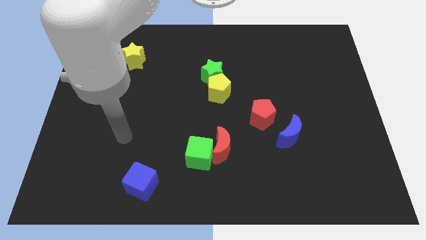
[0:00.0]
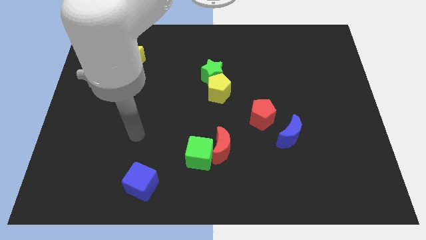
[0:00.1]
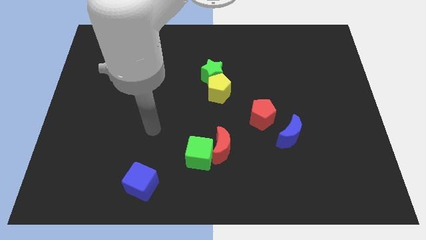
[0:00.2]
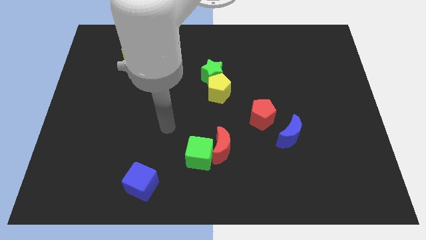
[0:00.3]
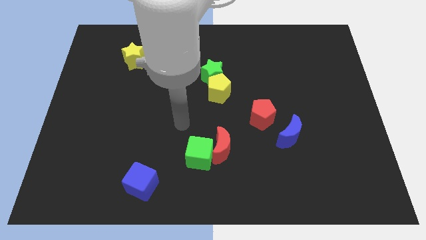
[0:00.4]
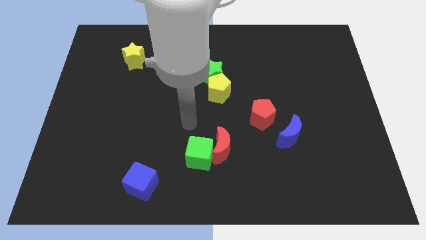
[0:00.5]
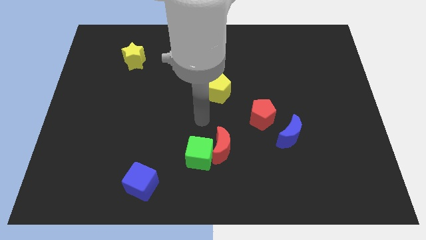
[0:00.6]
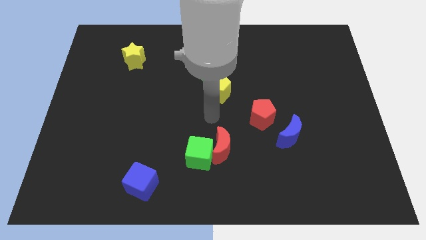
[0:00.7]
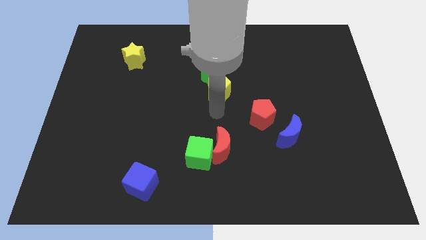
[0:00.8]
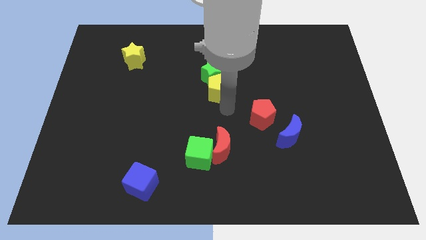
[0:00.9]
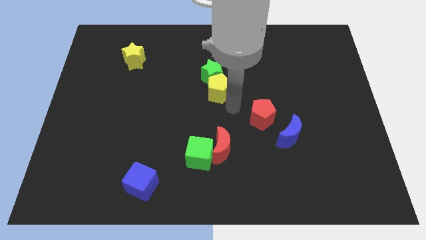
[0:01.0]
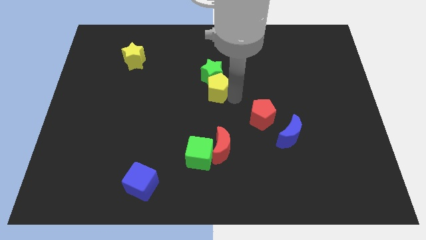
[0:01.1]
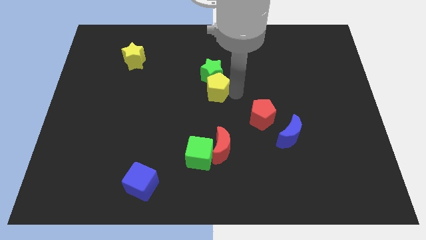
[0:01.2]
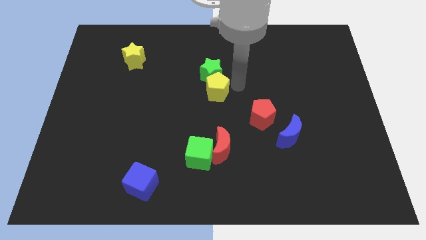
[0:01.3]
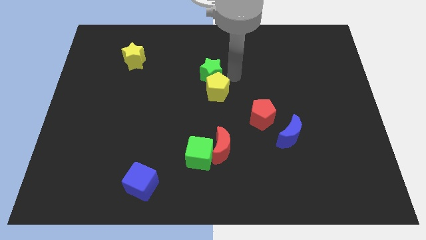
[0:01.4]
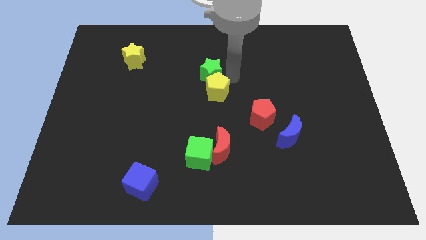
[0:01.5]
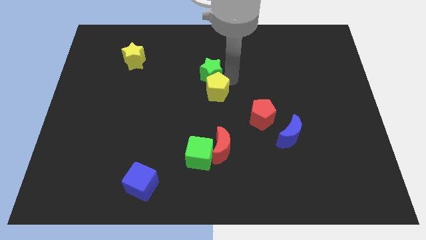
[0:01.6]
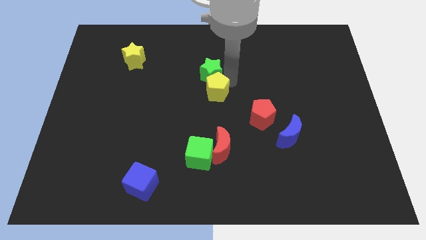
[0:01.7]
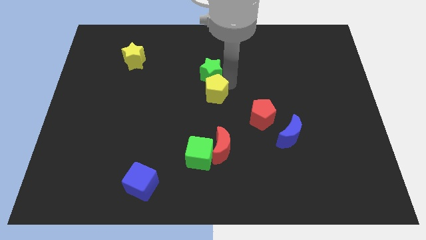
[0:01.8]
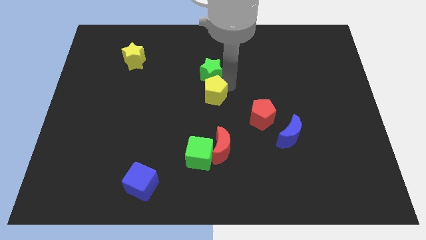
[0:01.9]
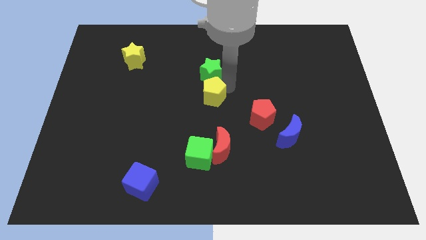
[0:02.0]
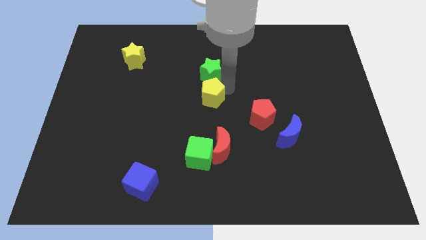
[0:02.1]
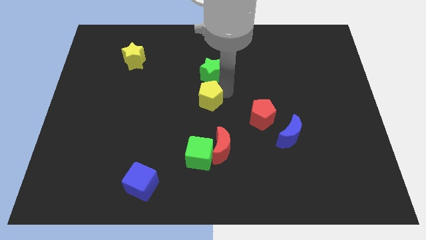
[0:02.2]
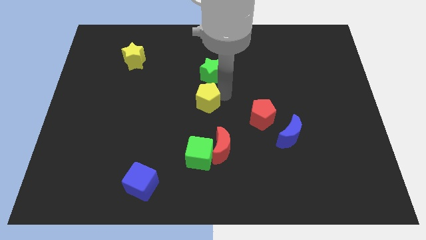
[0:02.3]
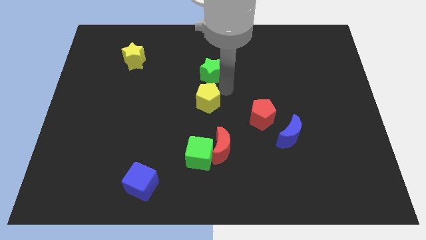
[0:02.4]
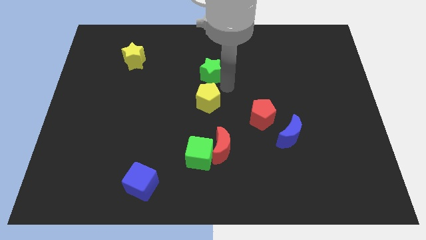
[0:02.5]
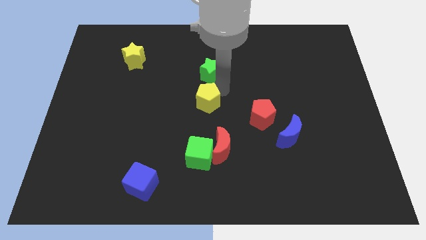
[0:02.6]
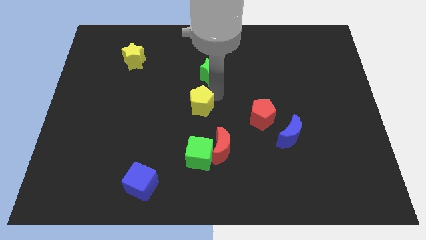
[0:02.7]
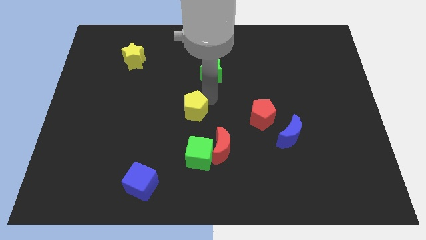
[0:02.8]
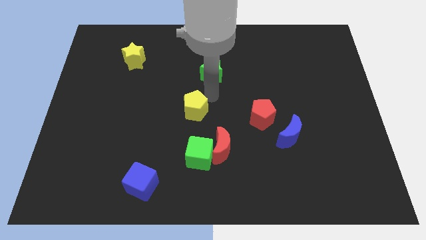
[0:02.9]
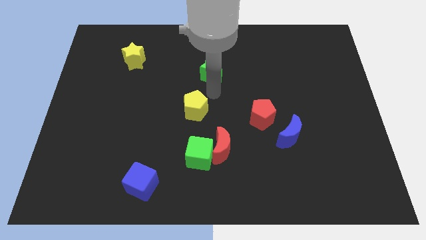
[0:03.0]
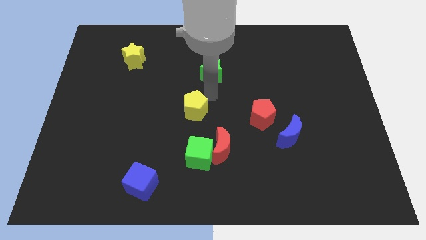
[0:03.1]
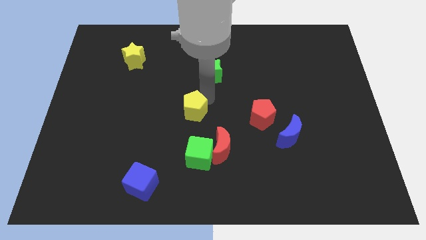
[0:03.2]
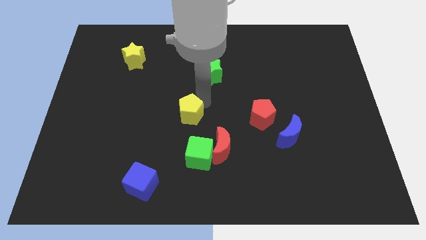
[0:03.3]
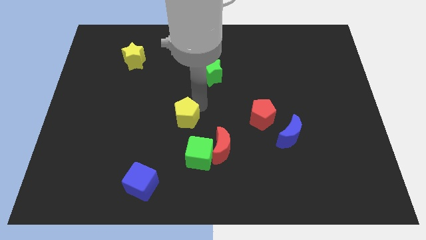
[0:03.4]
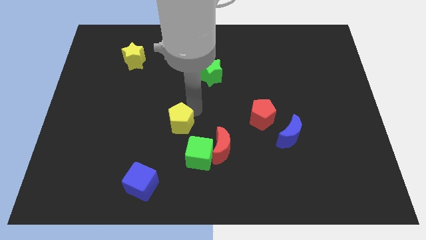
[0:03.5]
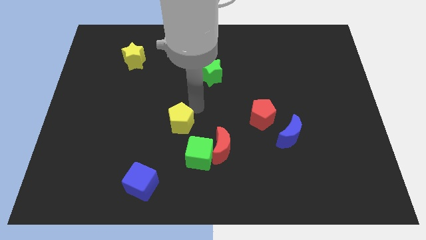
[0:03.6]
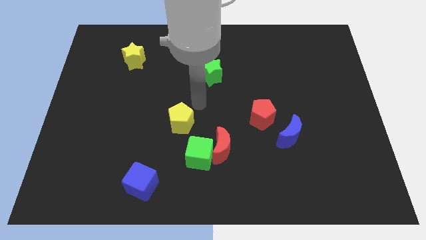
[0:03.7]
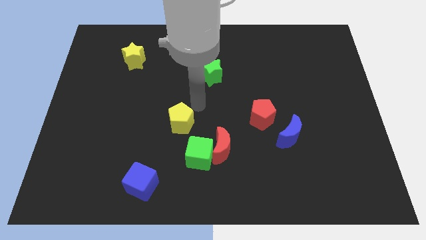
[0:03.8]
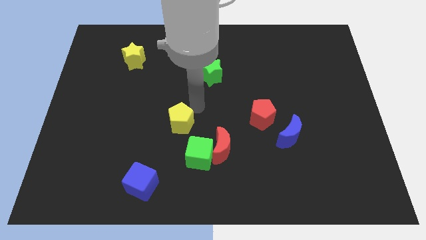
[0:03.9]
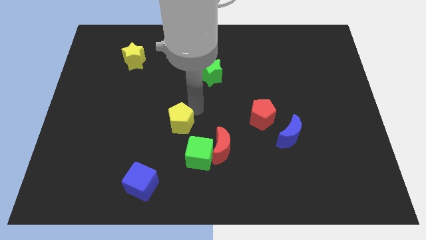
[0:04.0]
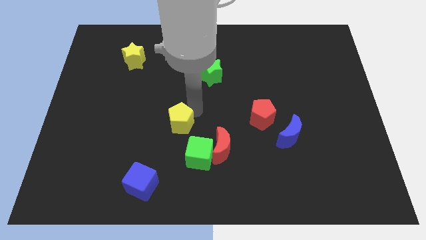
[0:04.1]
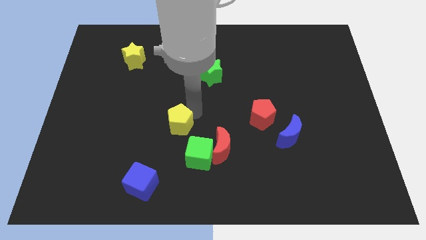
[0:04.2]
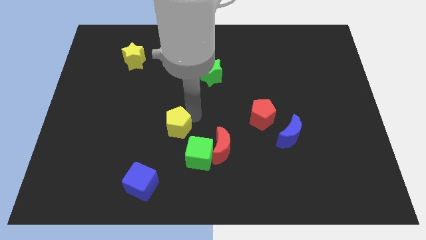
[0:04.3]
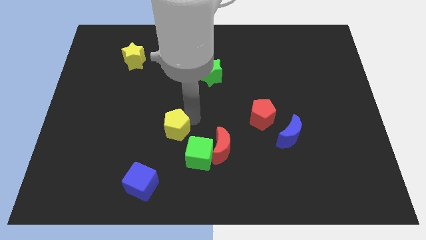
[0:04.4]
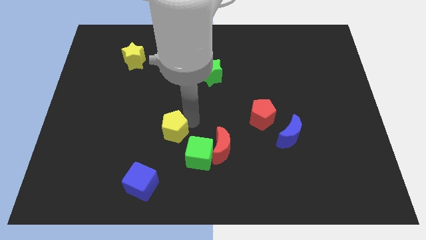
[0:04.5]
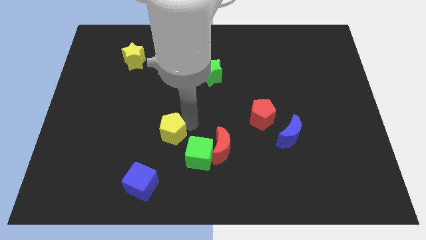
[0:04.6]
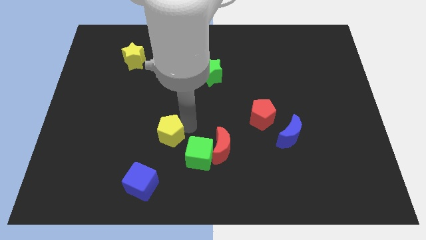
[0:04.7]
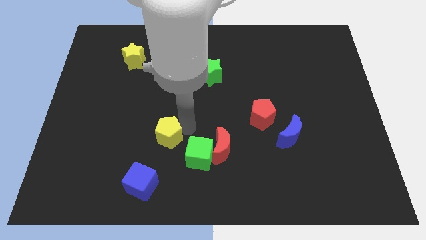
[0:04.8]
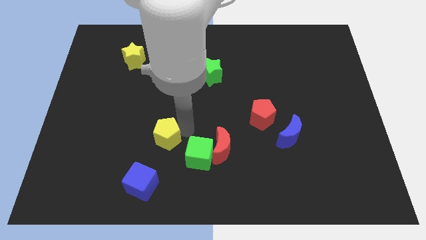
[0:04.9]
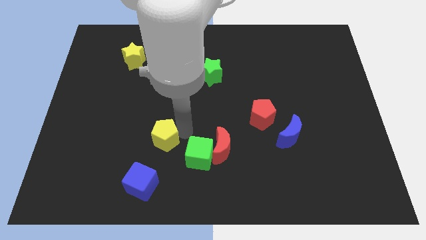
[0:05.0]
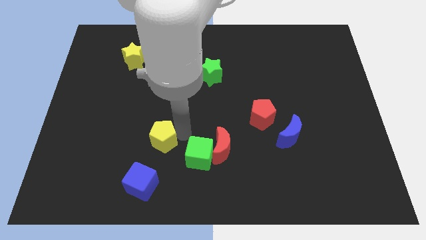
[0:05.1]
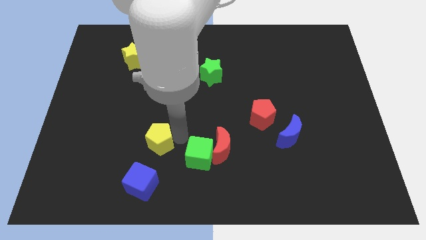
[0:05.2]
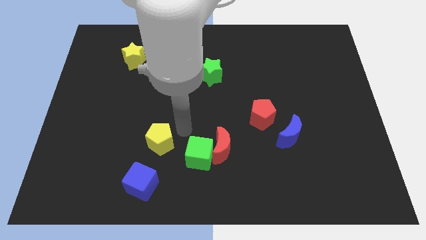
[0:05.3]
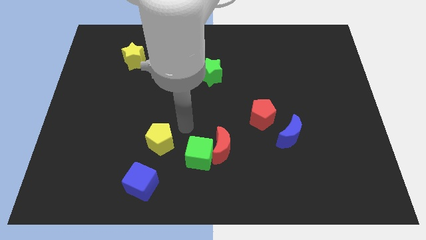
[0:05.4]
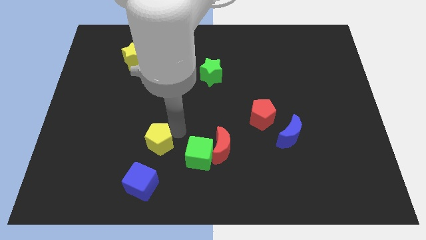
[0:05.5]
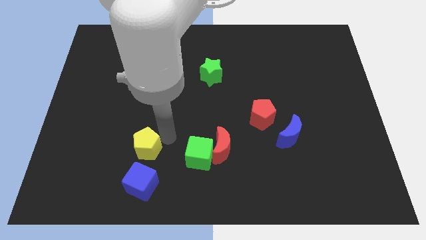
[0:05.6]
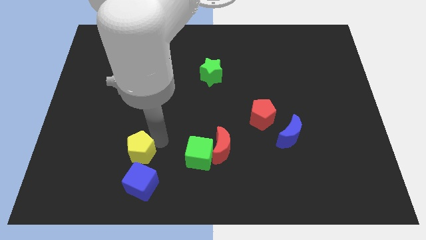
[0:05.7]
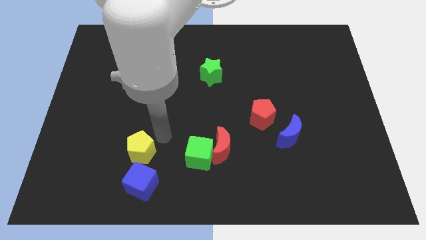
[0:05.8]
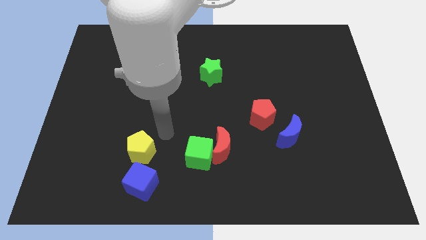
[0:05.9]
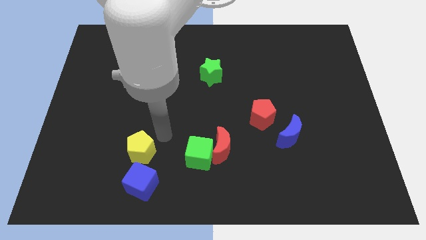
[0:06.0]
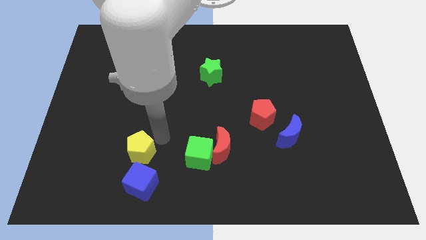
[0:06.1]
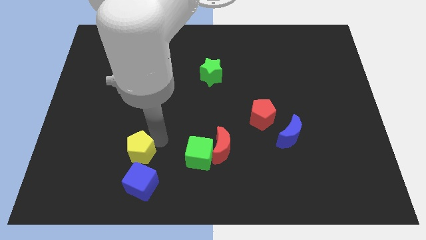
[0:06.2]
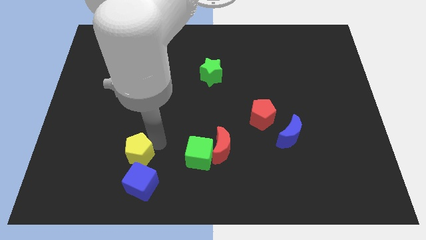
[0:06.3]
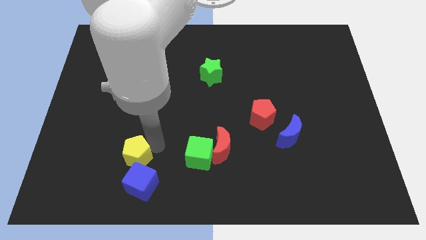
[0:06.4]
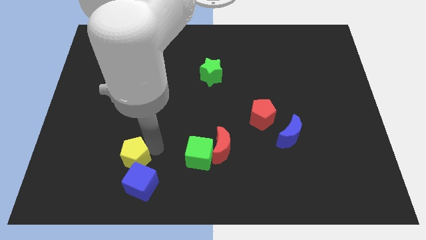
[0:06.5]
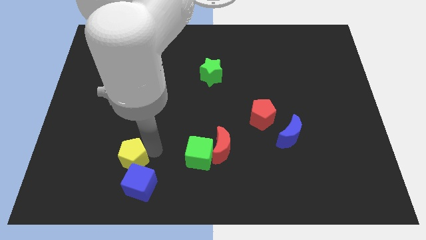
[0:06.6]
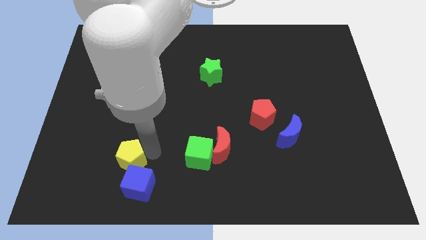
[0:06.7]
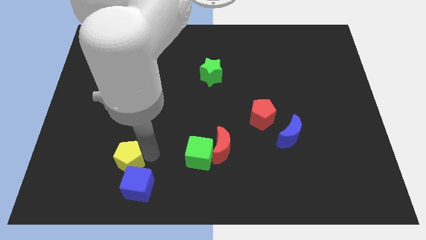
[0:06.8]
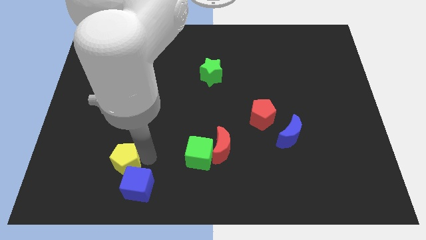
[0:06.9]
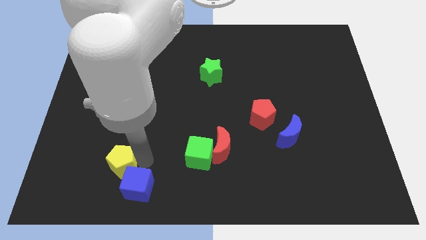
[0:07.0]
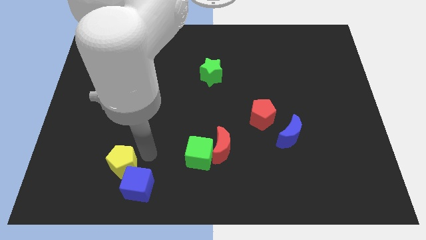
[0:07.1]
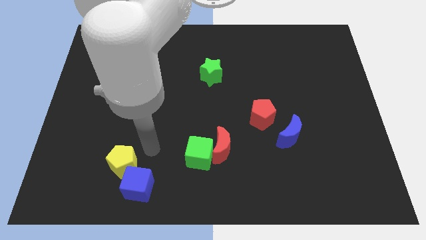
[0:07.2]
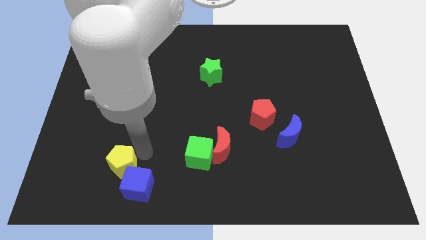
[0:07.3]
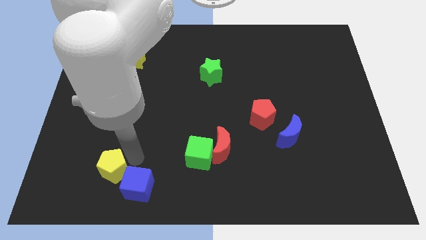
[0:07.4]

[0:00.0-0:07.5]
push the yellow pentagon to the left of the blue cube
